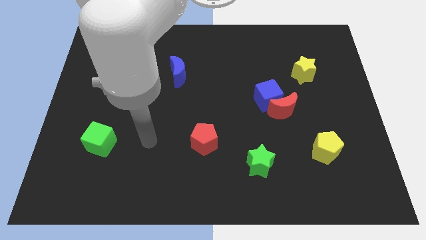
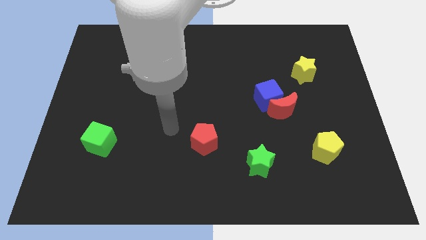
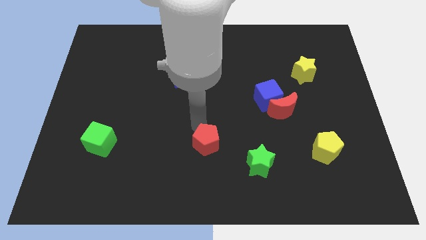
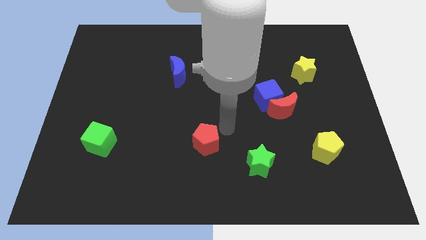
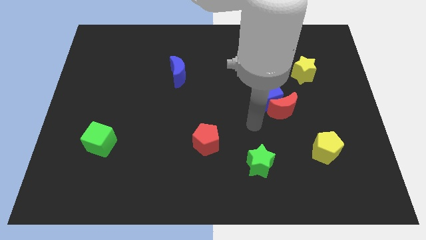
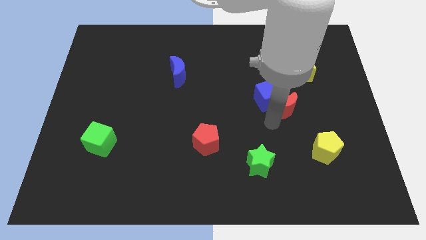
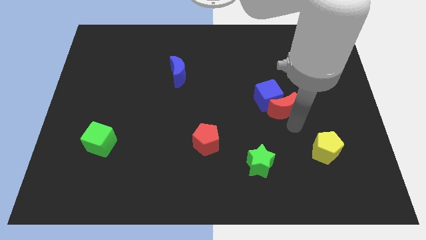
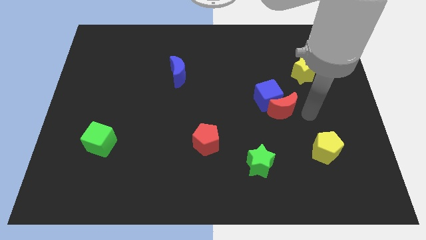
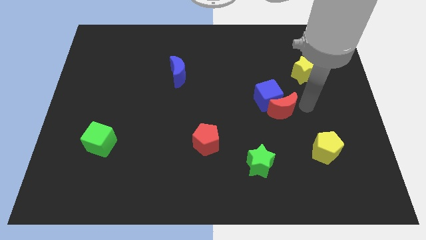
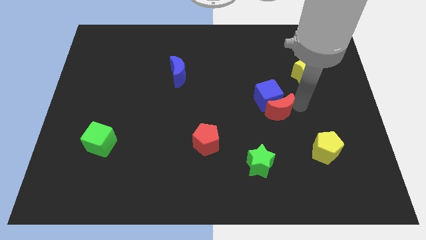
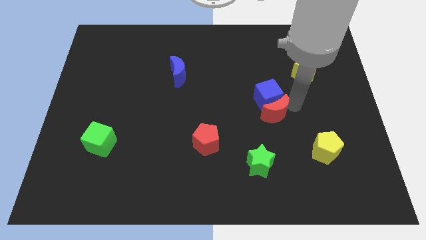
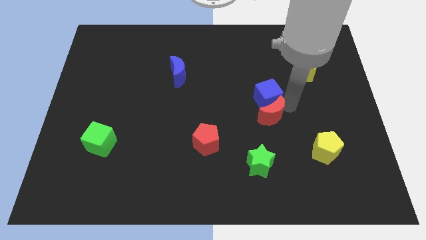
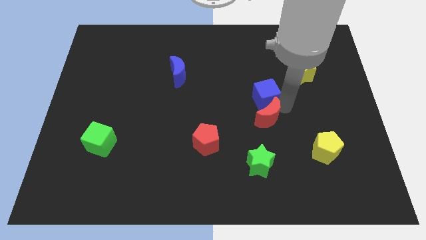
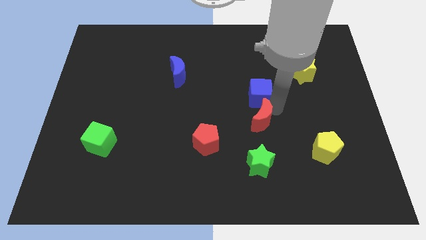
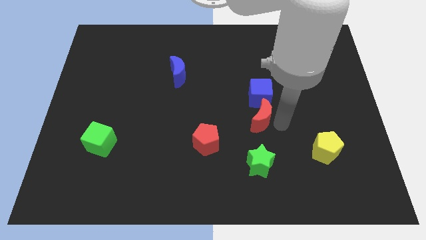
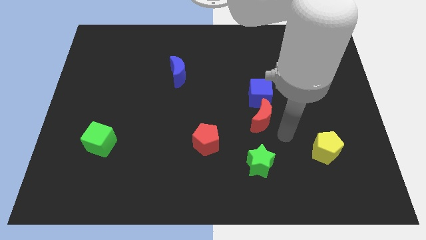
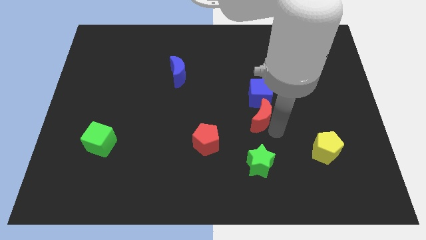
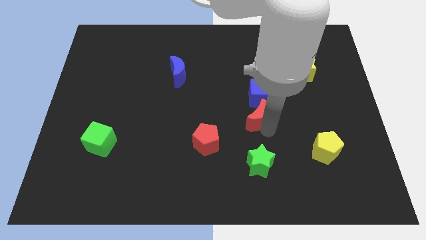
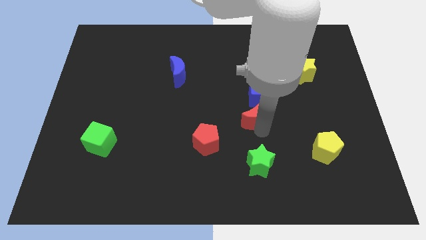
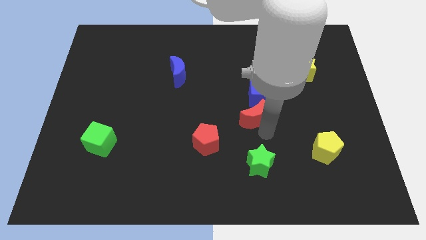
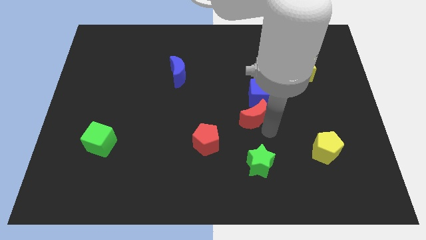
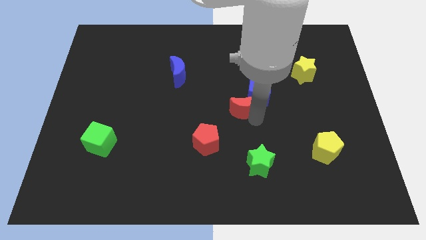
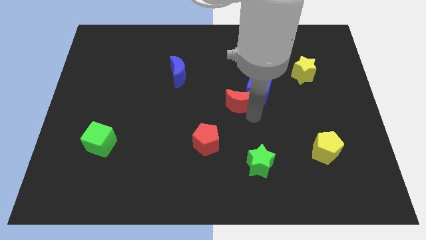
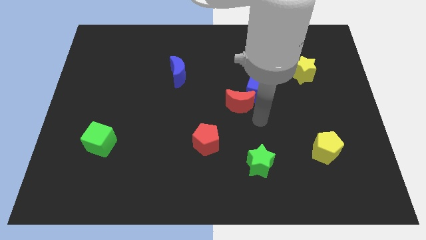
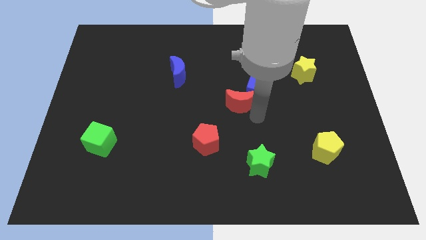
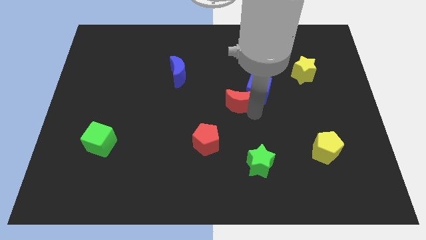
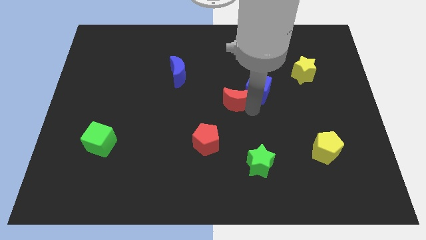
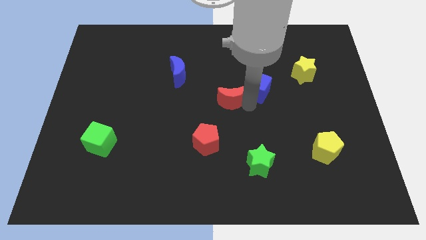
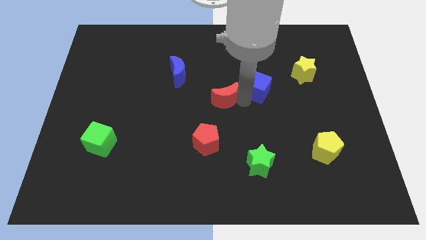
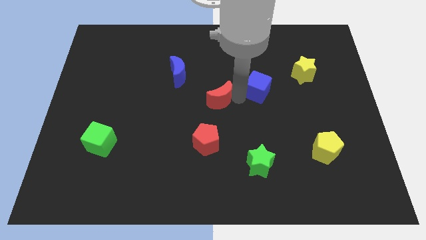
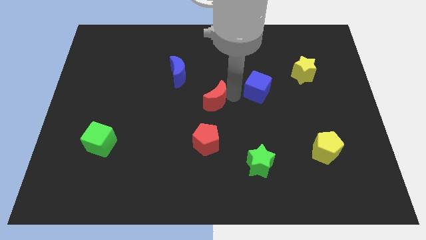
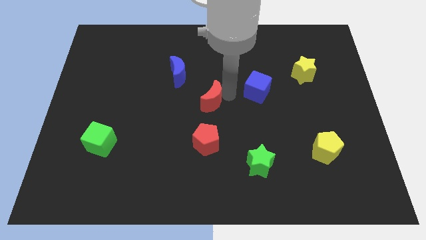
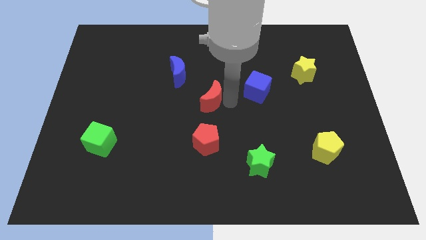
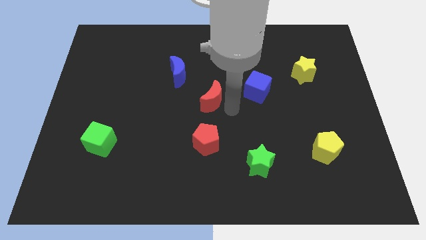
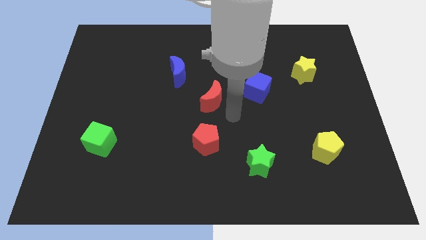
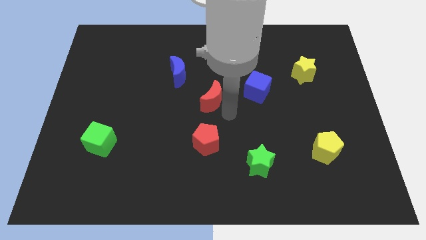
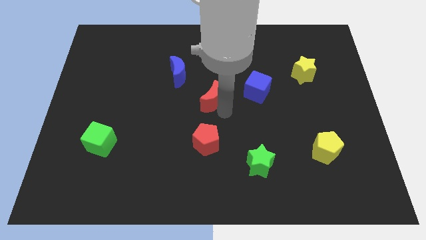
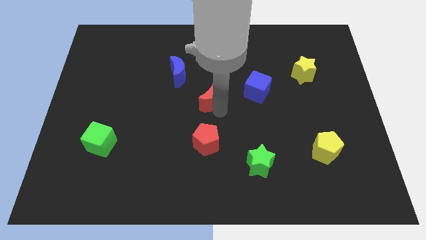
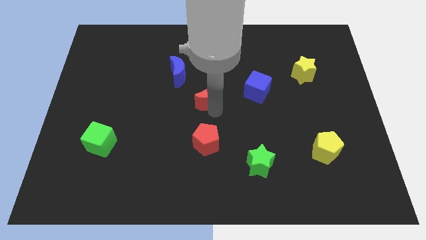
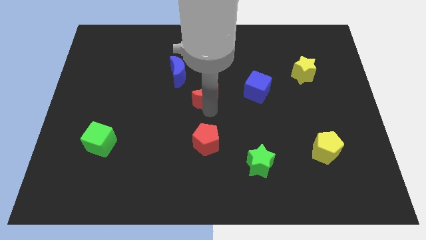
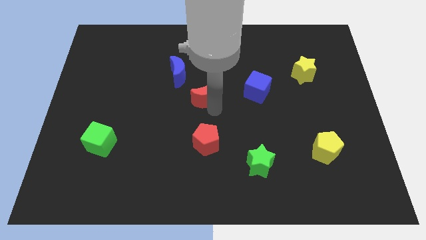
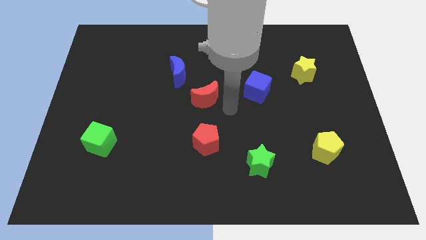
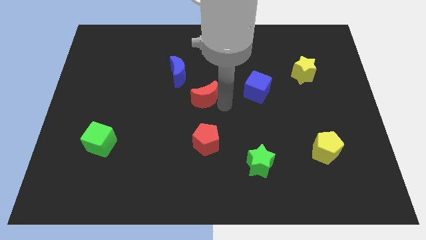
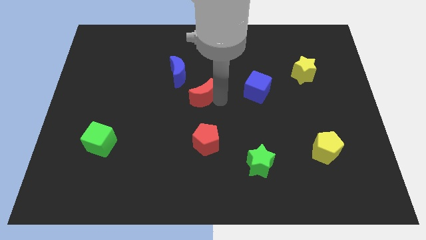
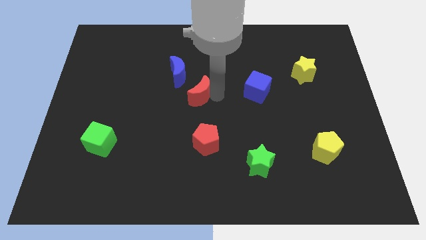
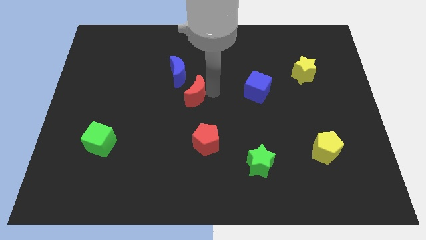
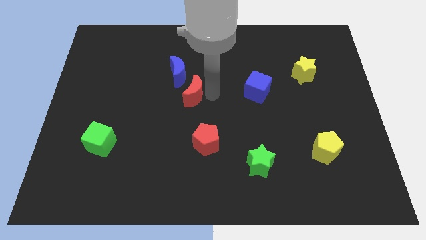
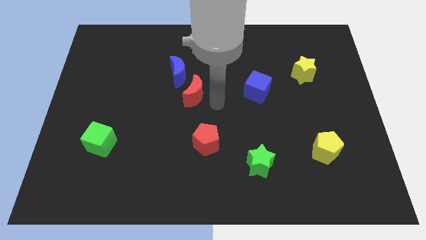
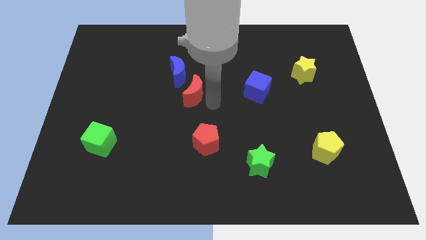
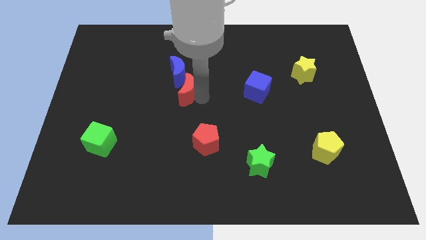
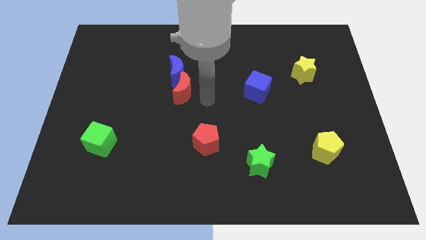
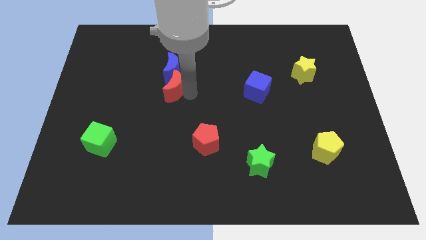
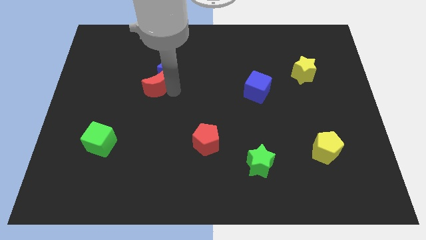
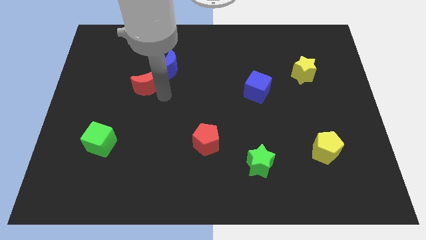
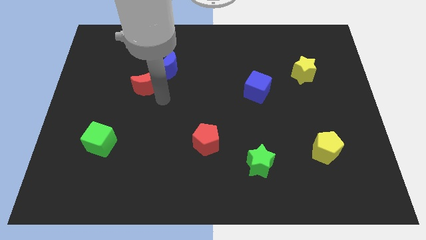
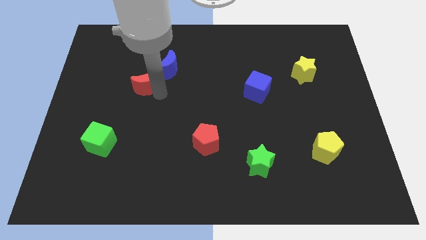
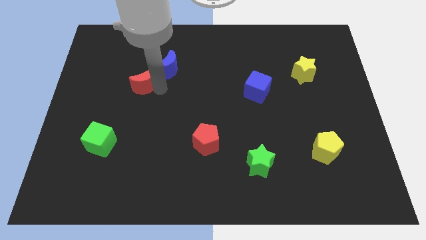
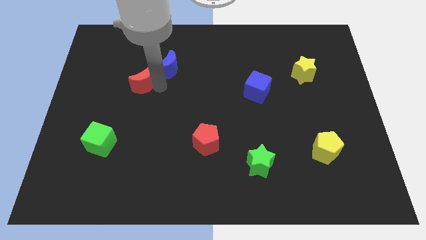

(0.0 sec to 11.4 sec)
put the red moon to the left side of the blue moon
